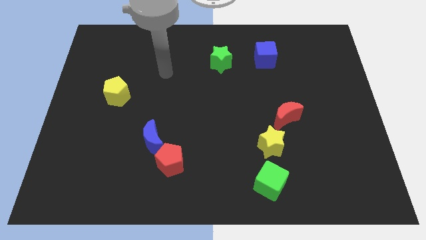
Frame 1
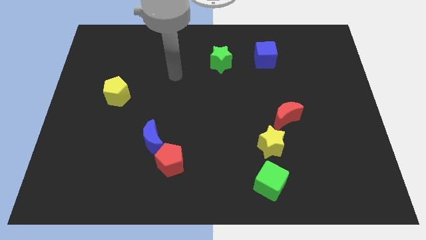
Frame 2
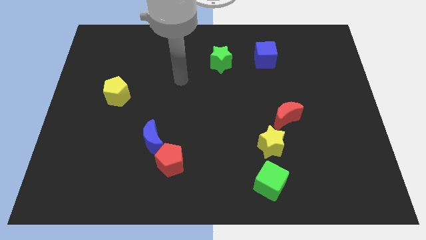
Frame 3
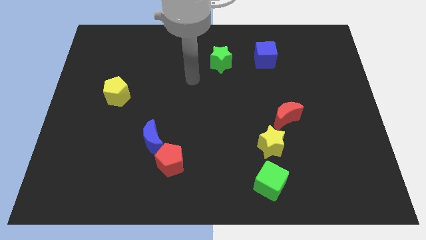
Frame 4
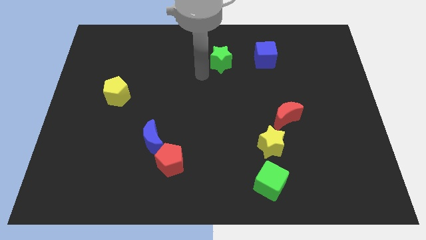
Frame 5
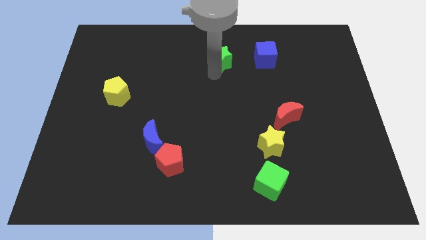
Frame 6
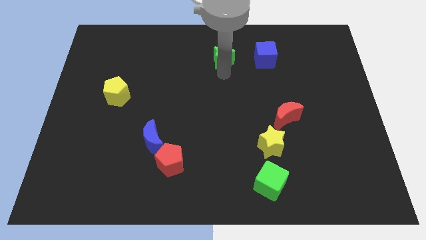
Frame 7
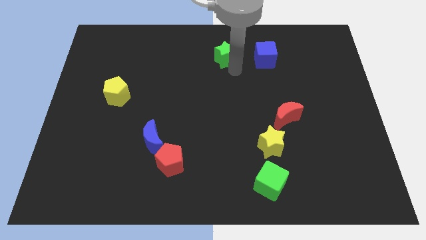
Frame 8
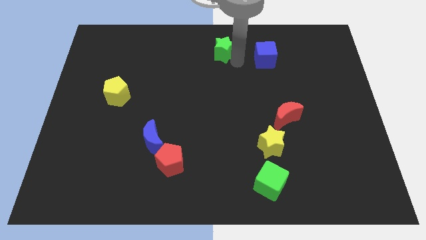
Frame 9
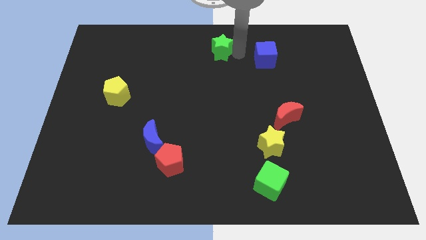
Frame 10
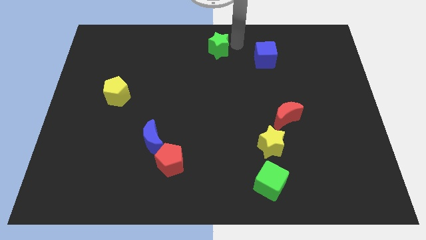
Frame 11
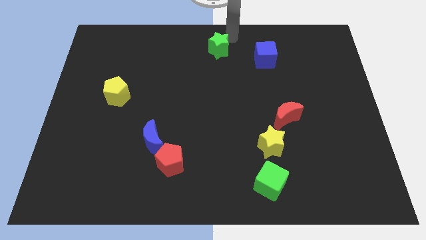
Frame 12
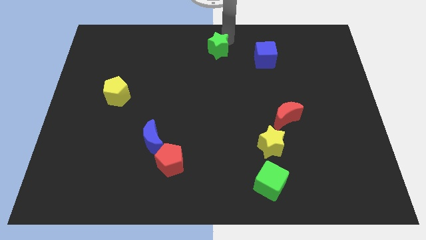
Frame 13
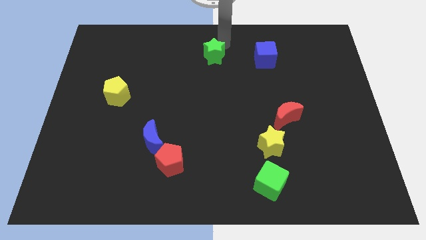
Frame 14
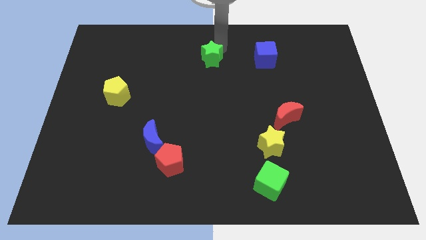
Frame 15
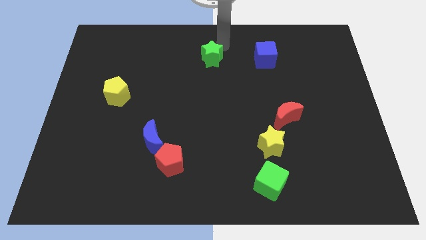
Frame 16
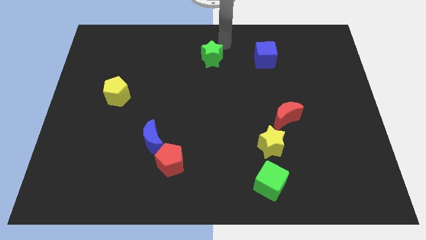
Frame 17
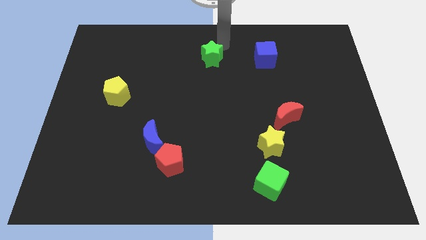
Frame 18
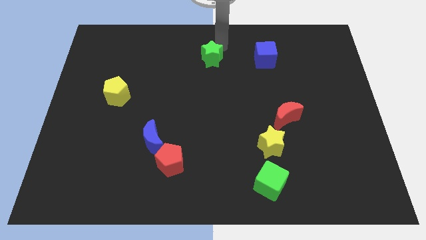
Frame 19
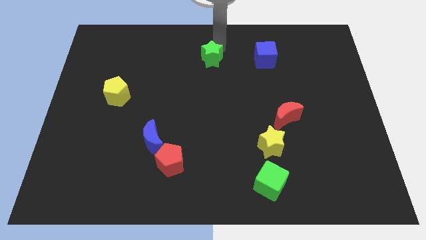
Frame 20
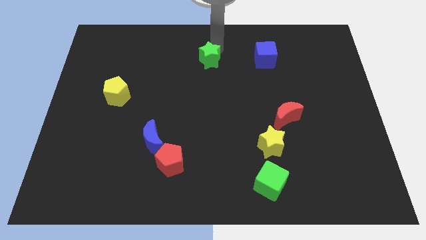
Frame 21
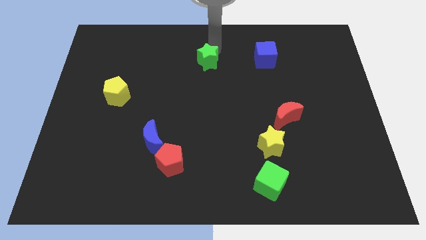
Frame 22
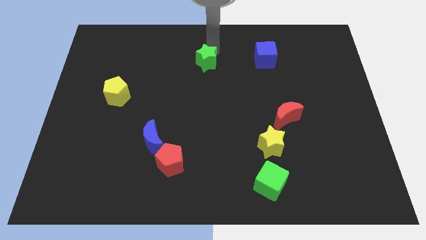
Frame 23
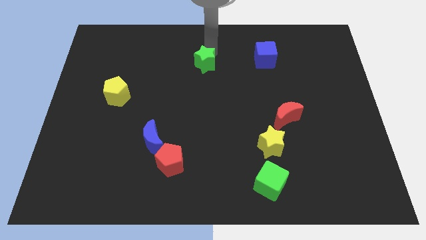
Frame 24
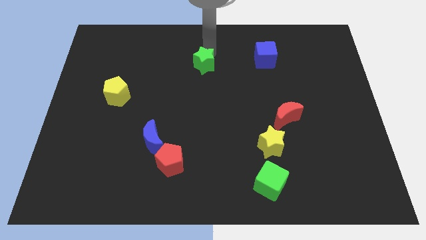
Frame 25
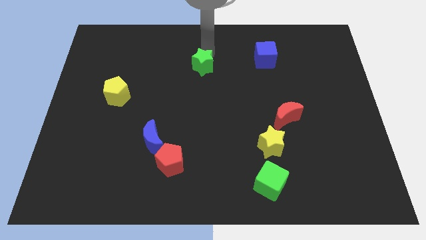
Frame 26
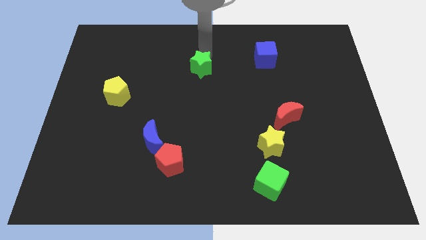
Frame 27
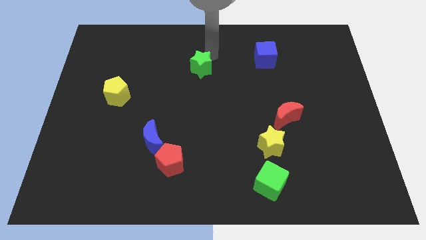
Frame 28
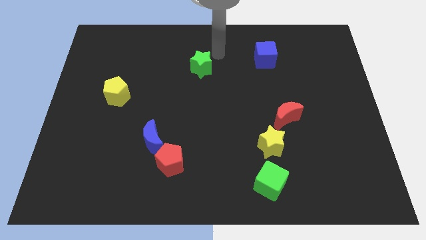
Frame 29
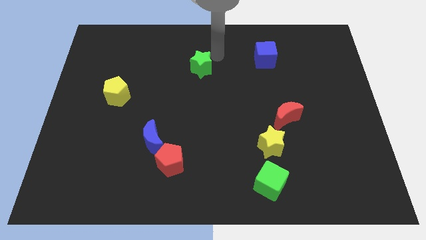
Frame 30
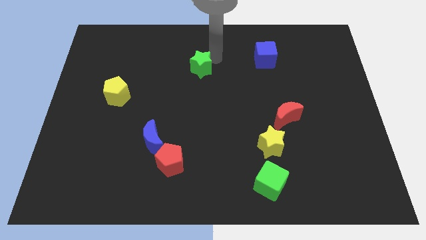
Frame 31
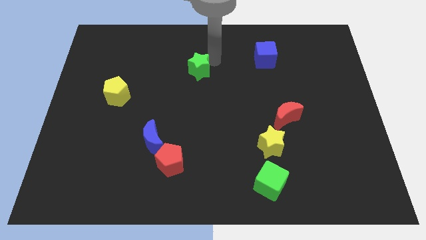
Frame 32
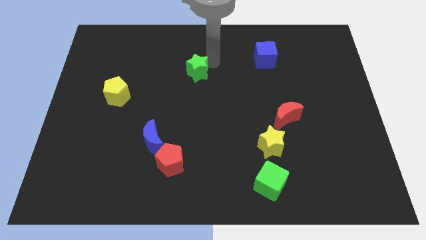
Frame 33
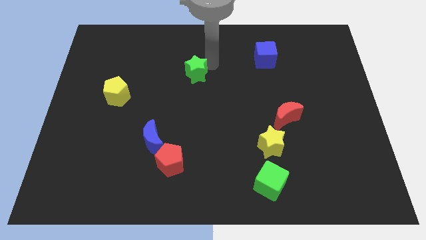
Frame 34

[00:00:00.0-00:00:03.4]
slightly move the green star downwards and left

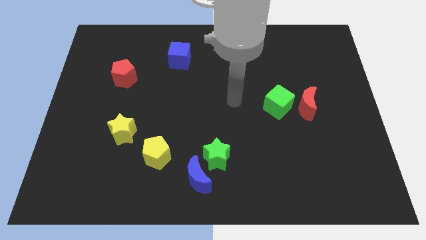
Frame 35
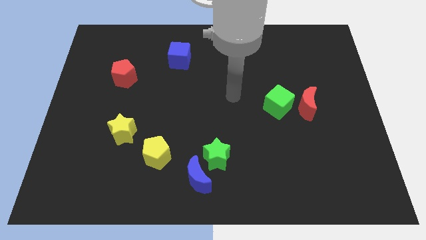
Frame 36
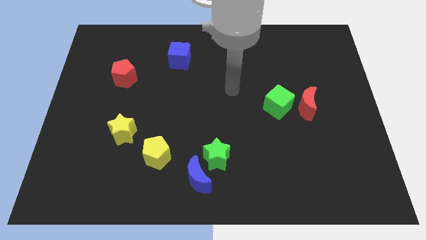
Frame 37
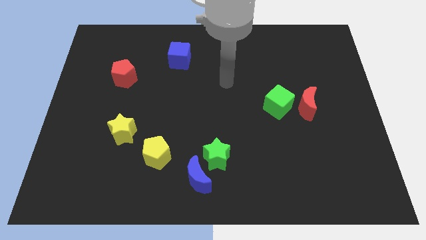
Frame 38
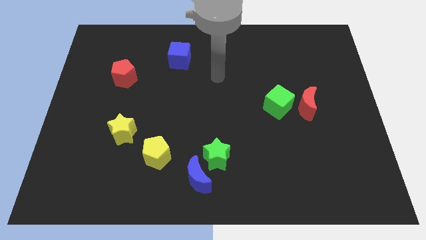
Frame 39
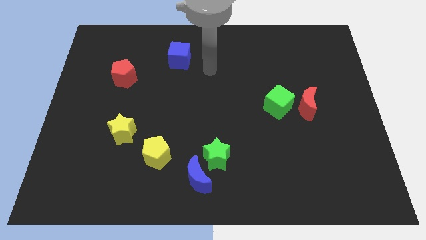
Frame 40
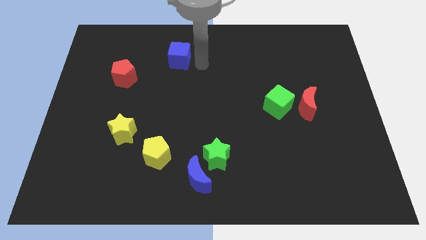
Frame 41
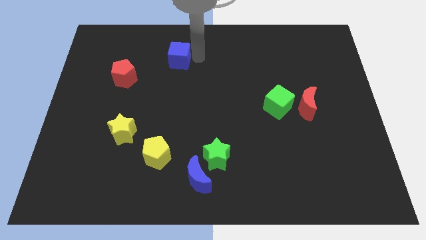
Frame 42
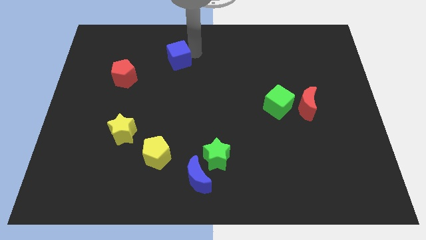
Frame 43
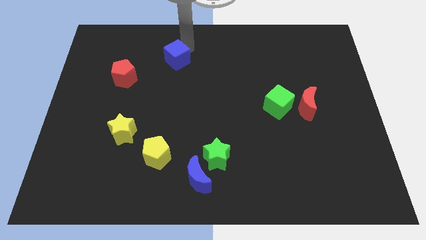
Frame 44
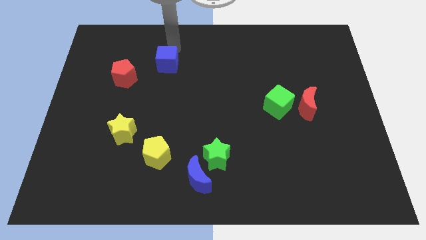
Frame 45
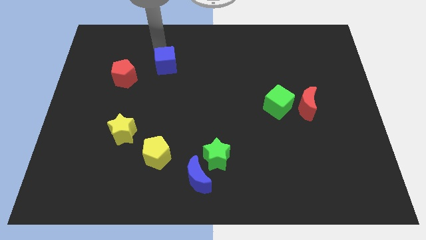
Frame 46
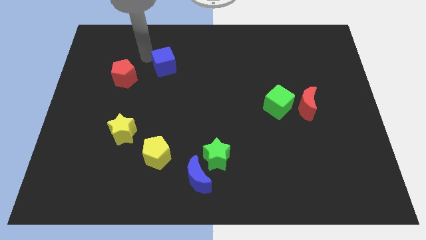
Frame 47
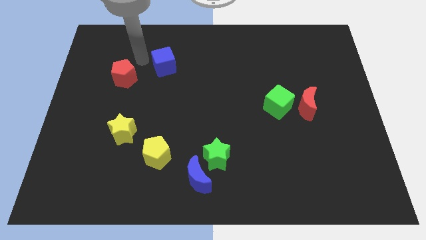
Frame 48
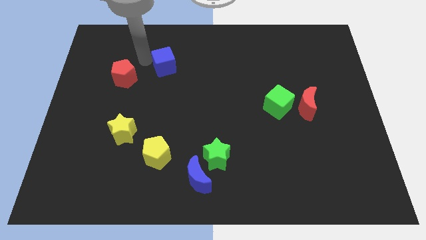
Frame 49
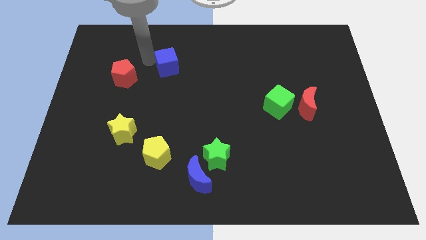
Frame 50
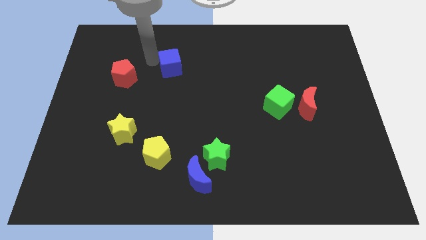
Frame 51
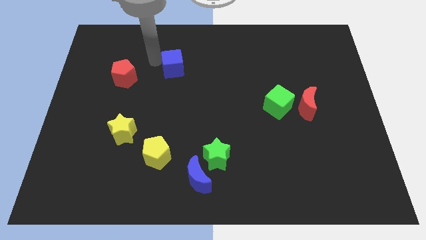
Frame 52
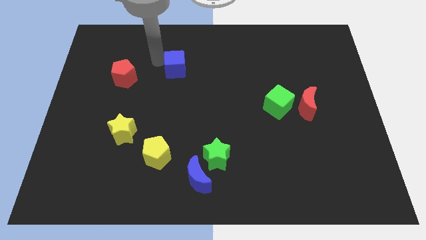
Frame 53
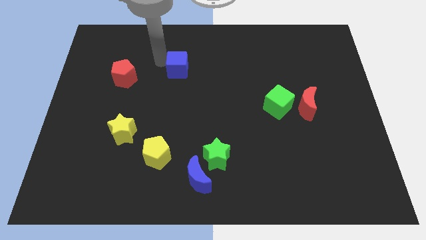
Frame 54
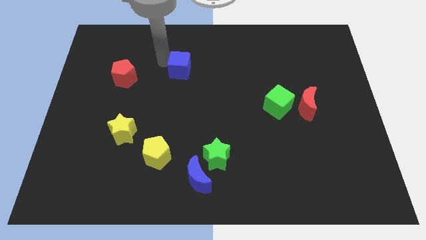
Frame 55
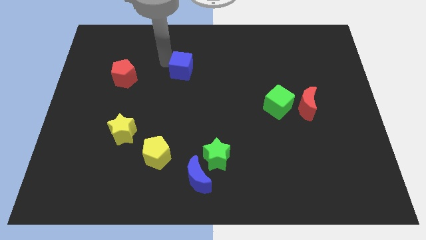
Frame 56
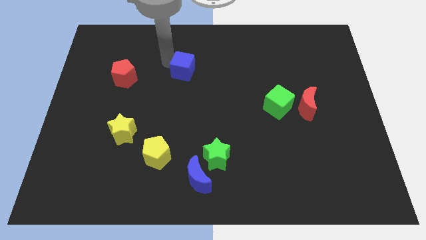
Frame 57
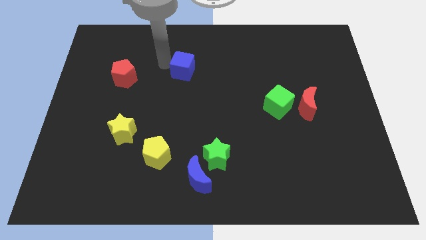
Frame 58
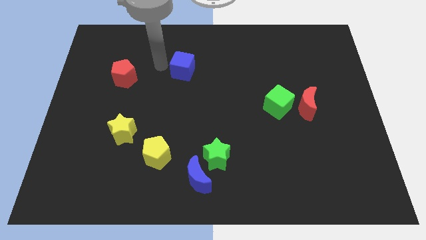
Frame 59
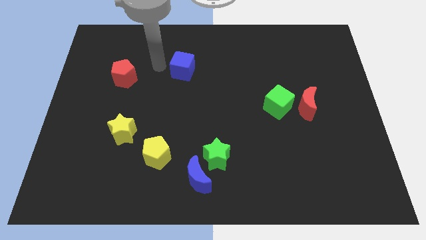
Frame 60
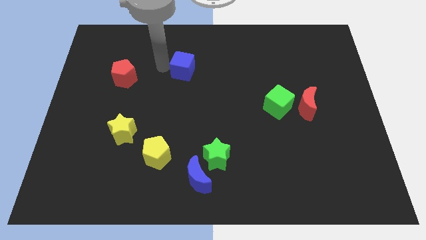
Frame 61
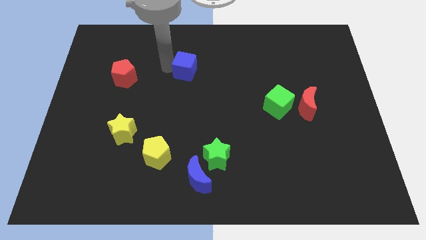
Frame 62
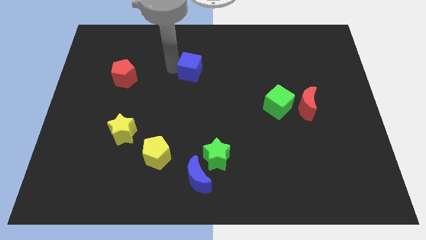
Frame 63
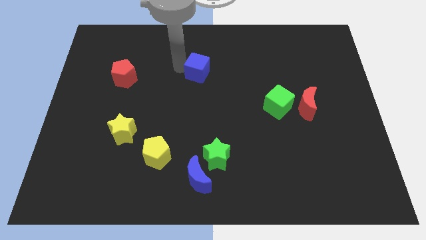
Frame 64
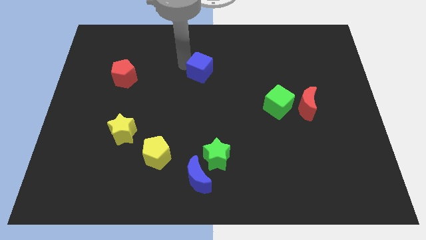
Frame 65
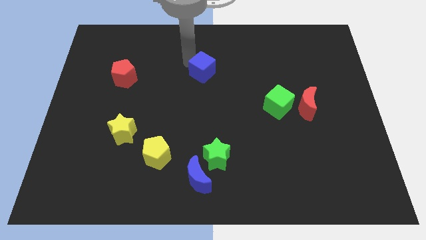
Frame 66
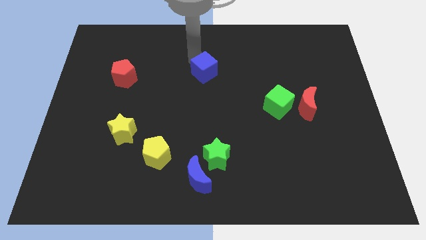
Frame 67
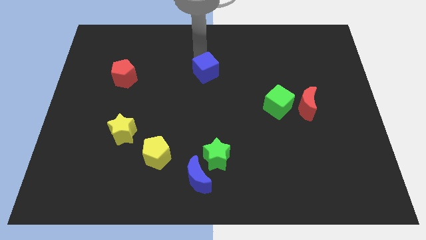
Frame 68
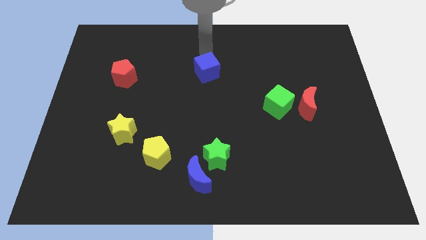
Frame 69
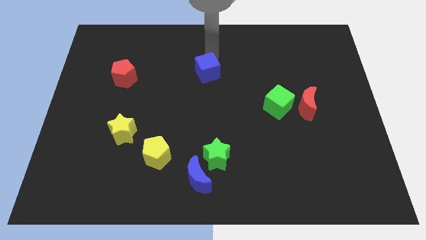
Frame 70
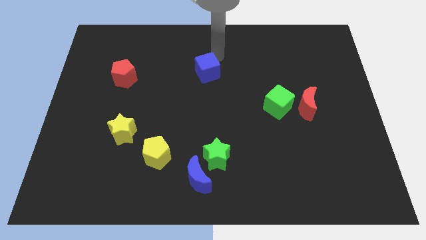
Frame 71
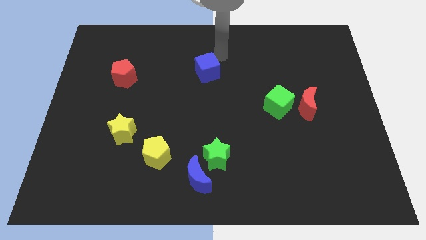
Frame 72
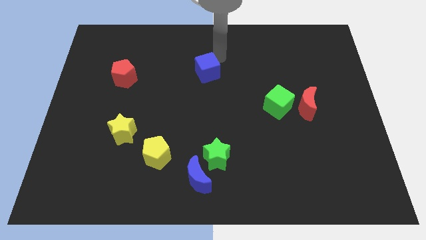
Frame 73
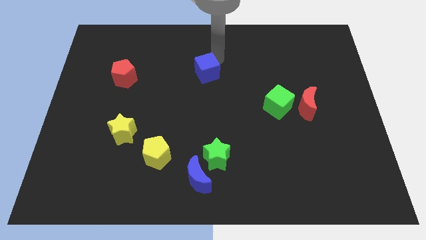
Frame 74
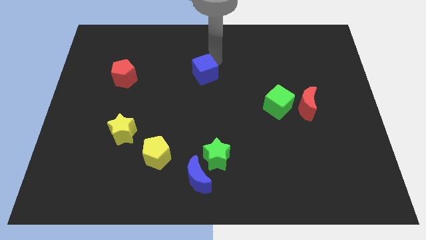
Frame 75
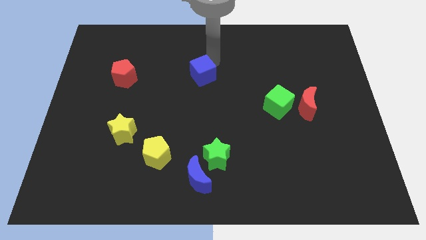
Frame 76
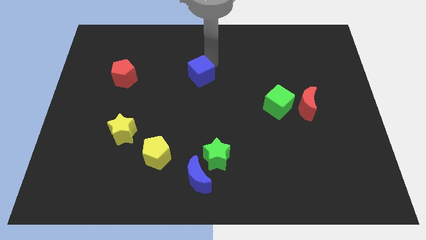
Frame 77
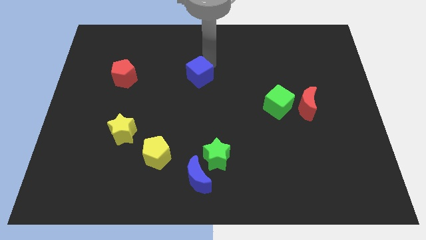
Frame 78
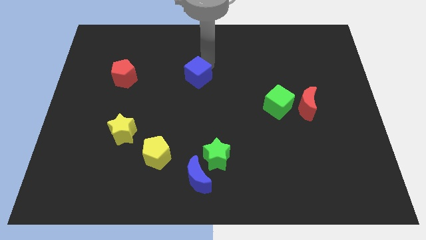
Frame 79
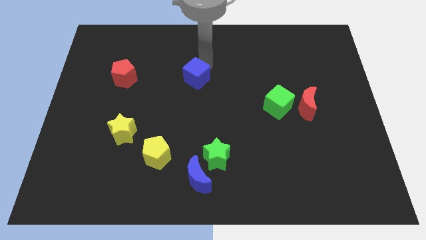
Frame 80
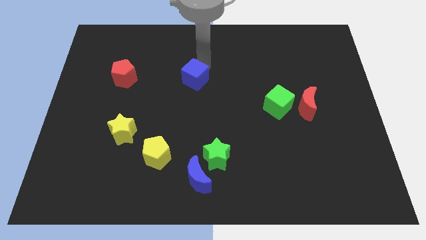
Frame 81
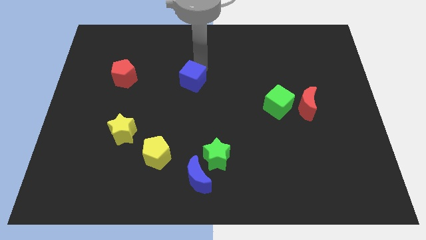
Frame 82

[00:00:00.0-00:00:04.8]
slightly push the blue cube downwards
